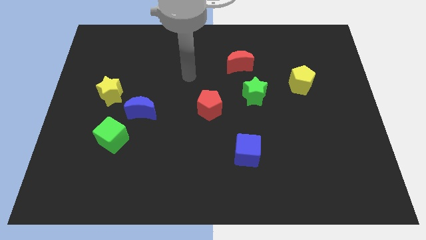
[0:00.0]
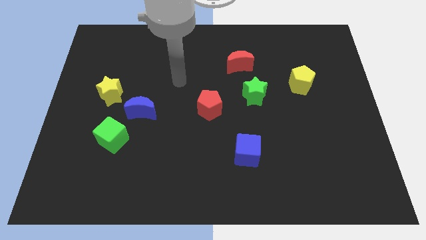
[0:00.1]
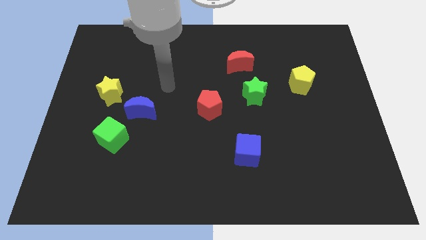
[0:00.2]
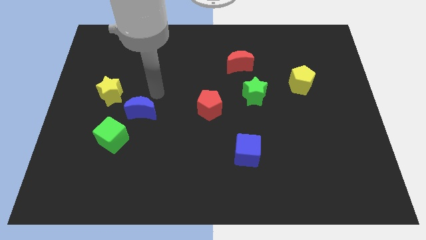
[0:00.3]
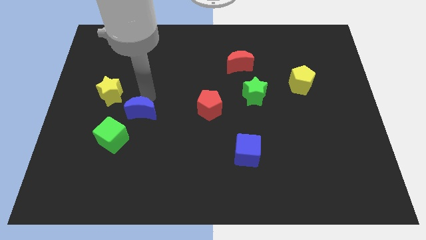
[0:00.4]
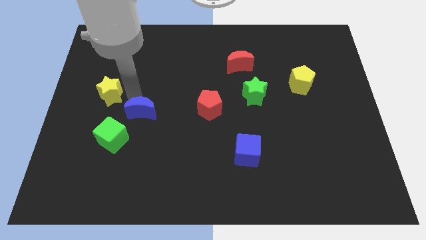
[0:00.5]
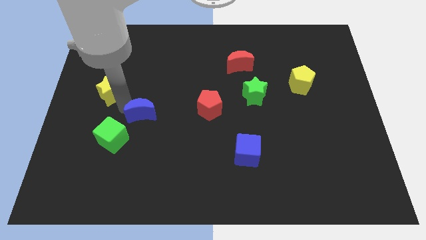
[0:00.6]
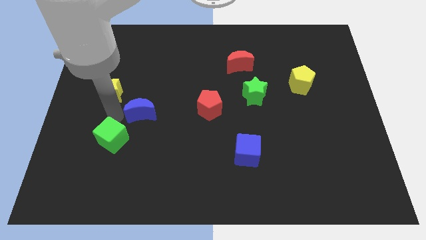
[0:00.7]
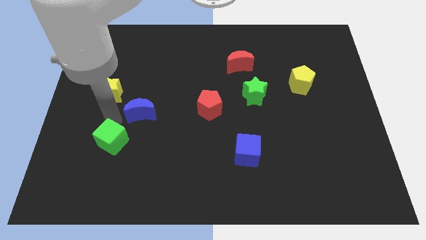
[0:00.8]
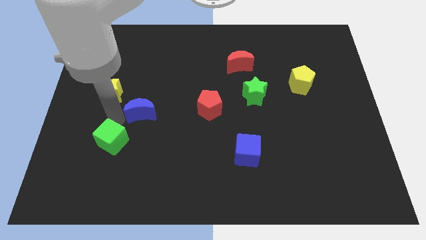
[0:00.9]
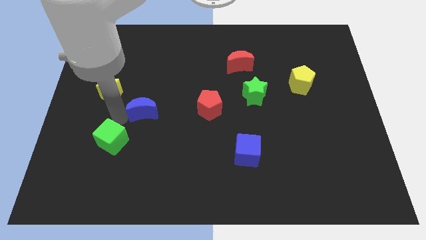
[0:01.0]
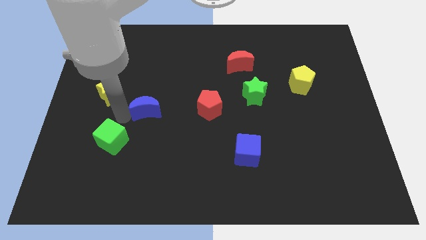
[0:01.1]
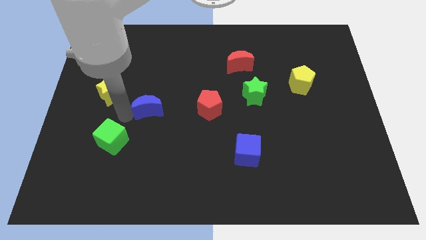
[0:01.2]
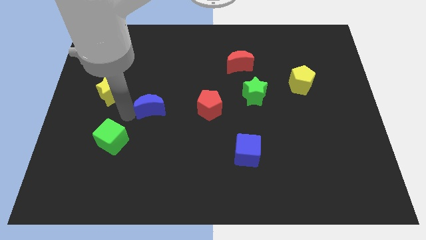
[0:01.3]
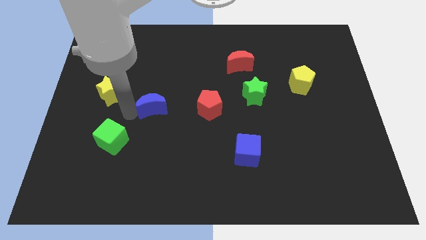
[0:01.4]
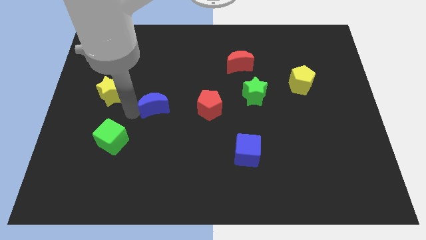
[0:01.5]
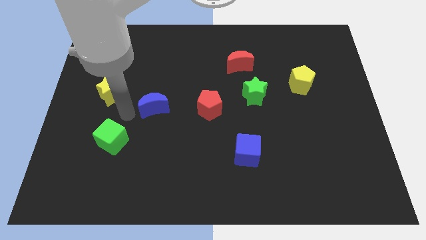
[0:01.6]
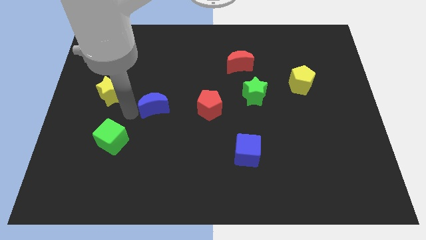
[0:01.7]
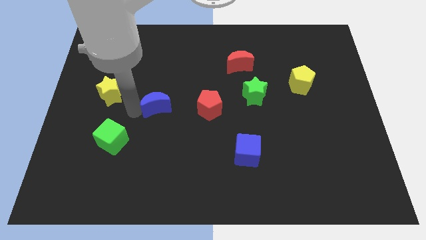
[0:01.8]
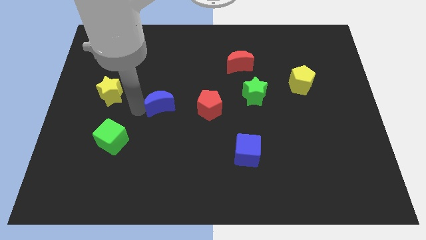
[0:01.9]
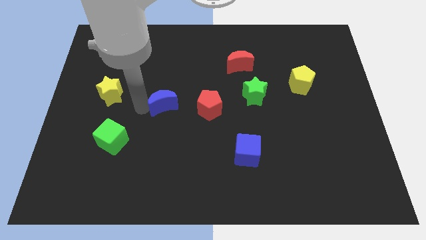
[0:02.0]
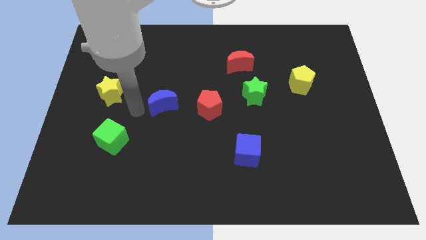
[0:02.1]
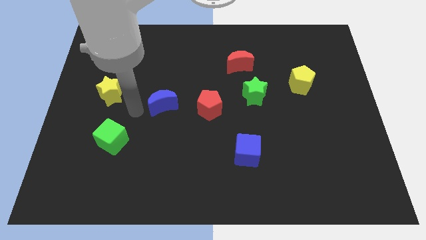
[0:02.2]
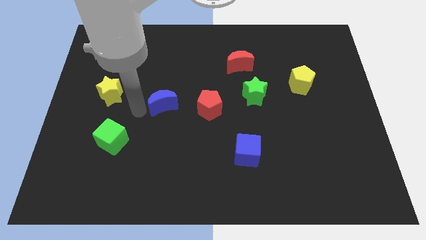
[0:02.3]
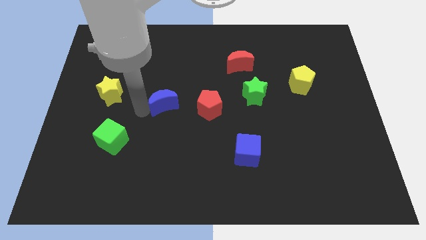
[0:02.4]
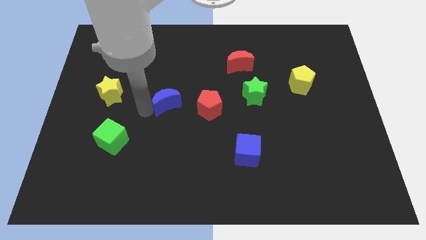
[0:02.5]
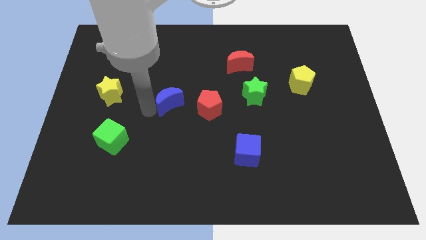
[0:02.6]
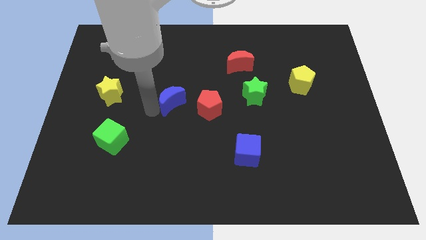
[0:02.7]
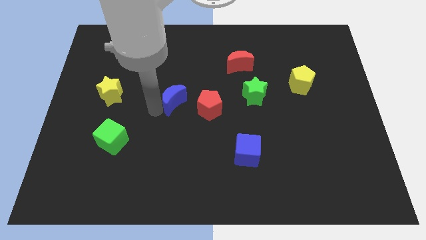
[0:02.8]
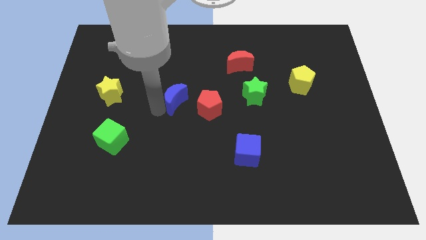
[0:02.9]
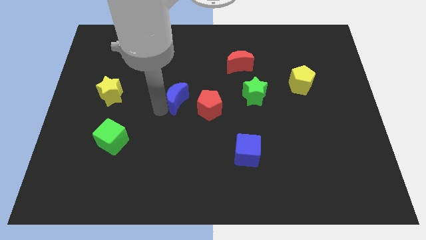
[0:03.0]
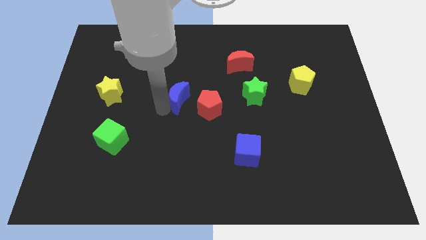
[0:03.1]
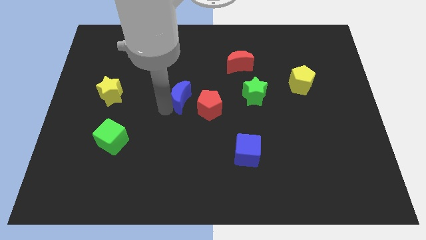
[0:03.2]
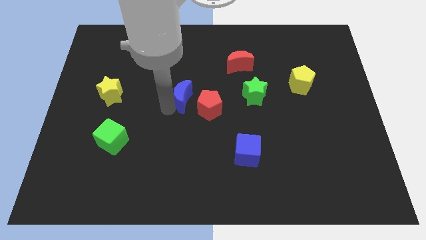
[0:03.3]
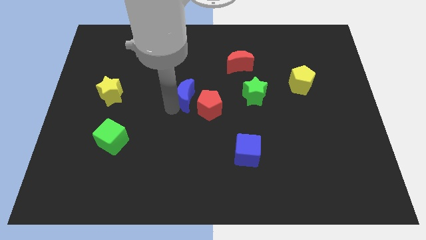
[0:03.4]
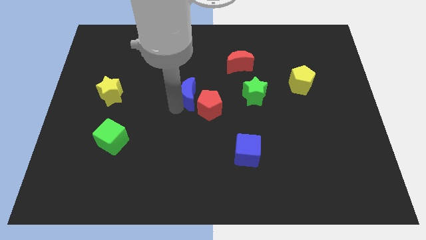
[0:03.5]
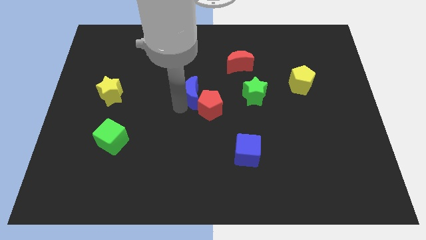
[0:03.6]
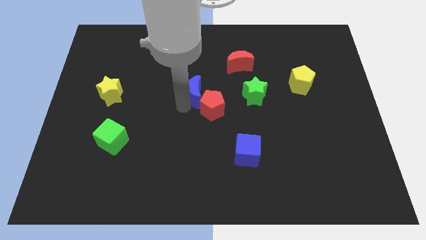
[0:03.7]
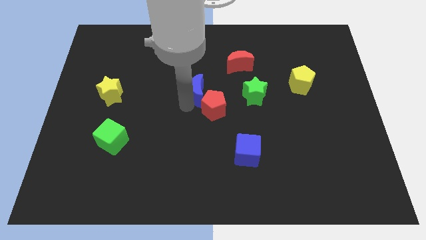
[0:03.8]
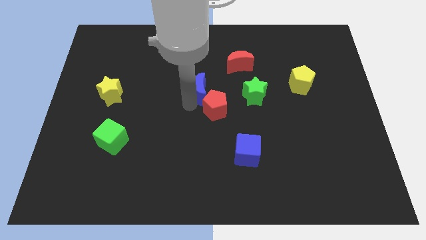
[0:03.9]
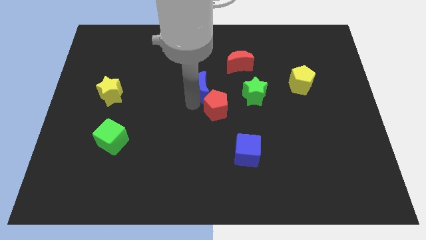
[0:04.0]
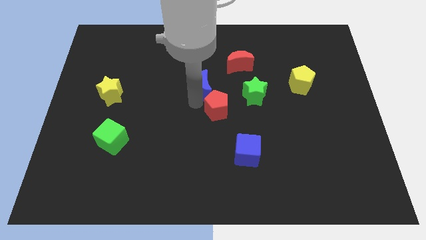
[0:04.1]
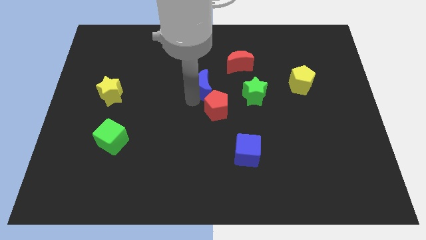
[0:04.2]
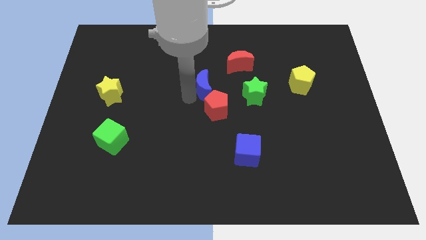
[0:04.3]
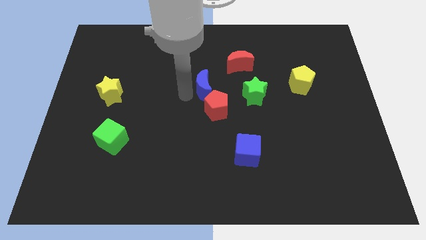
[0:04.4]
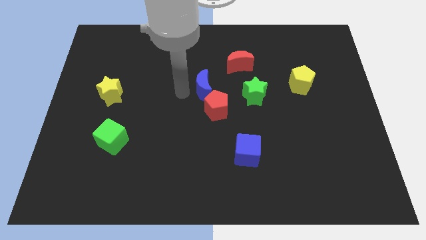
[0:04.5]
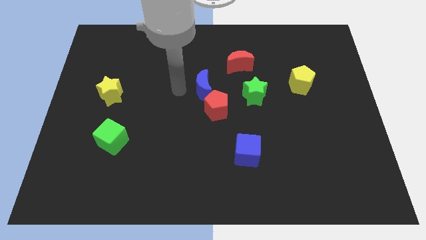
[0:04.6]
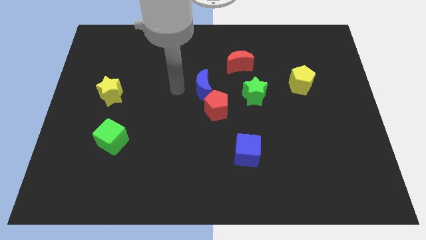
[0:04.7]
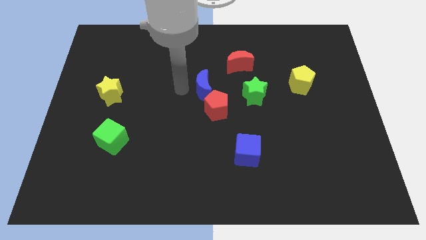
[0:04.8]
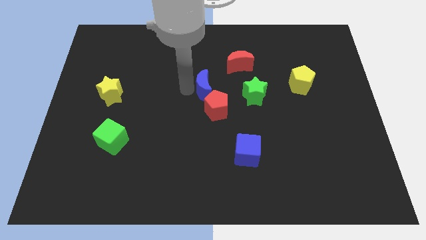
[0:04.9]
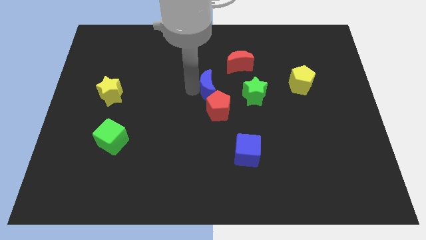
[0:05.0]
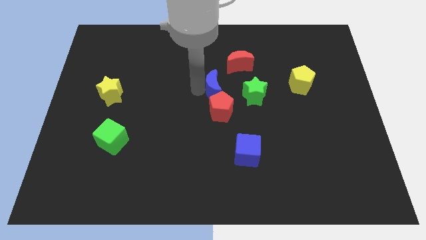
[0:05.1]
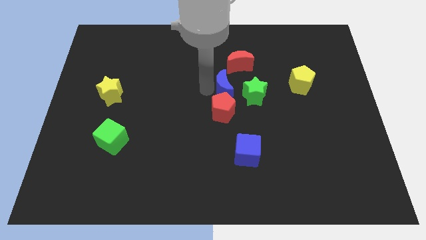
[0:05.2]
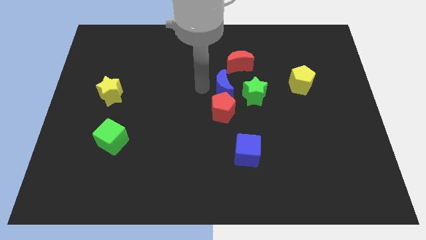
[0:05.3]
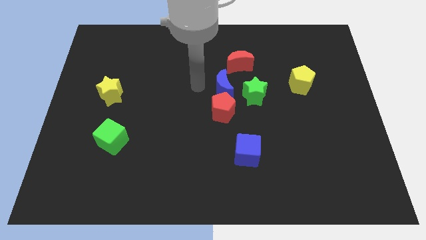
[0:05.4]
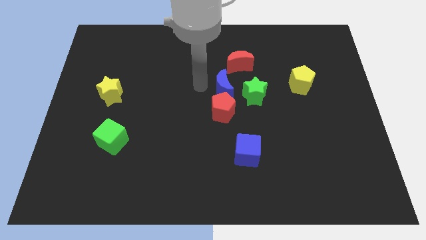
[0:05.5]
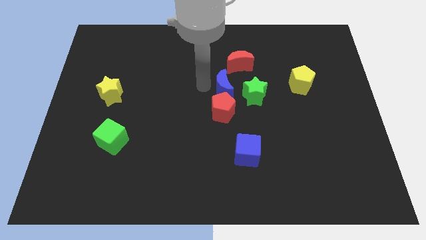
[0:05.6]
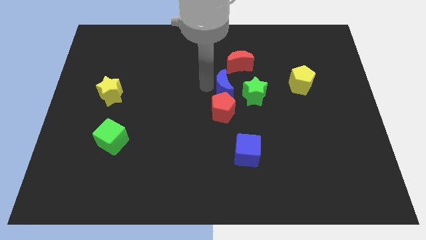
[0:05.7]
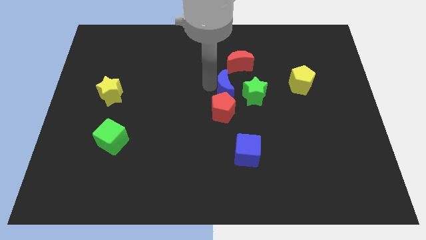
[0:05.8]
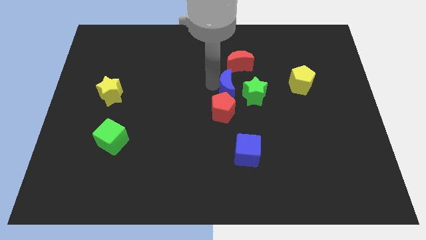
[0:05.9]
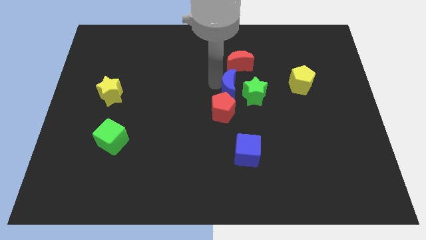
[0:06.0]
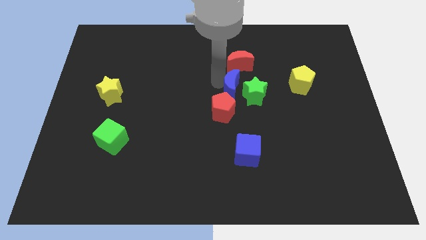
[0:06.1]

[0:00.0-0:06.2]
move the blue moon close to the green star
